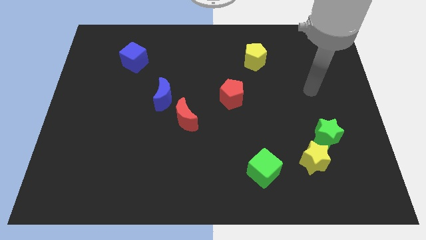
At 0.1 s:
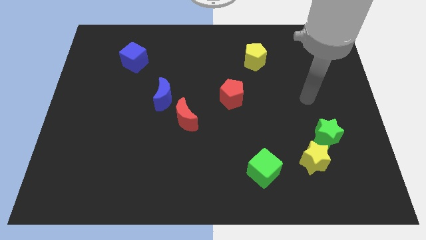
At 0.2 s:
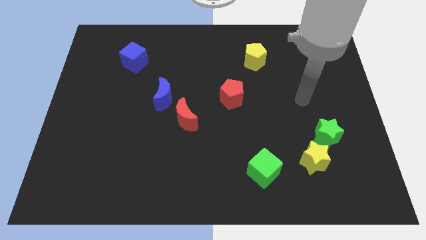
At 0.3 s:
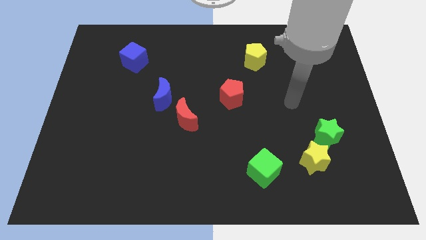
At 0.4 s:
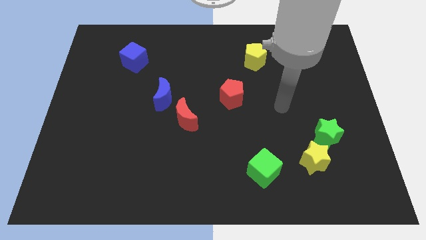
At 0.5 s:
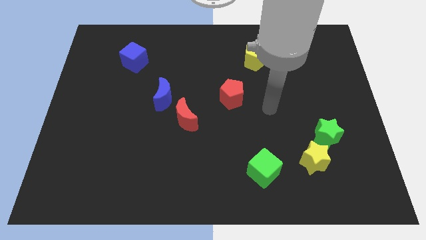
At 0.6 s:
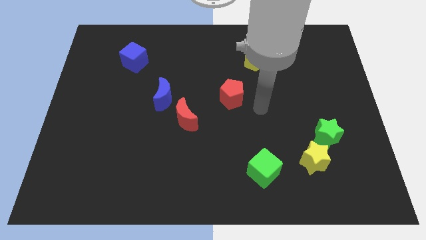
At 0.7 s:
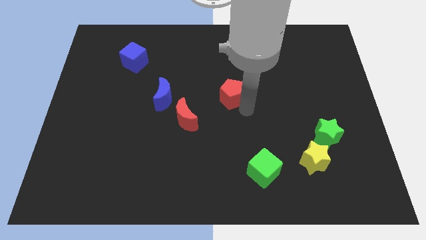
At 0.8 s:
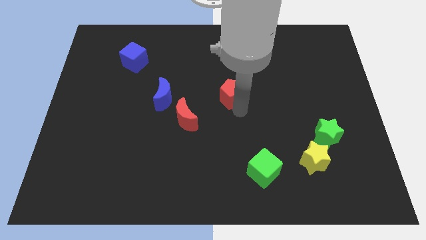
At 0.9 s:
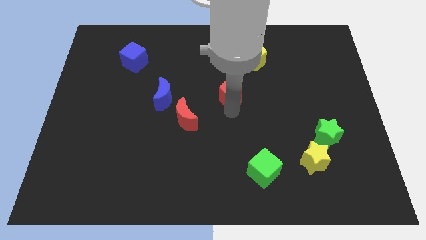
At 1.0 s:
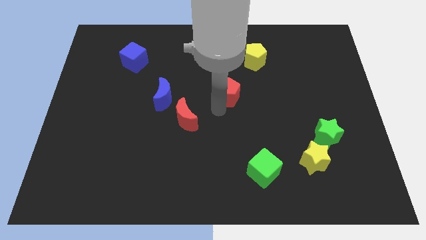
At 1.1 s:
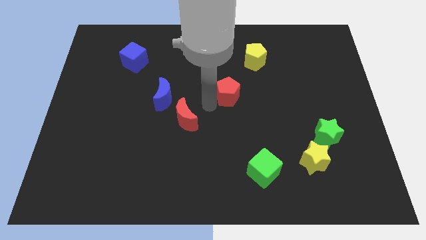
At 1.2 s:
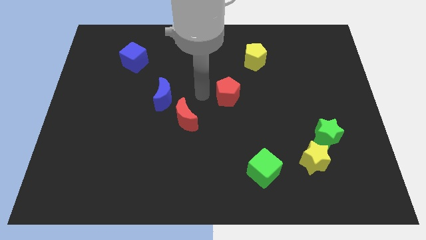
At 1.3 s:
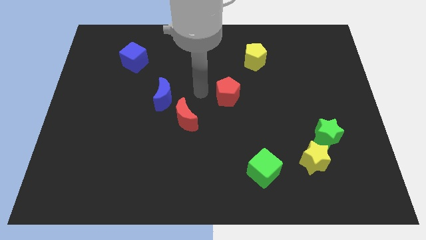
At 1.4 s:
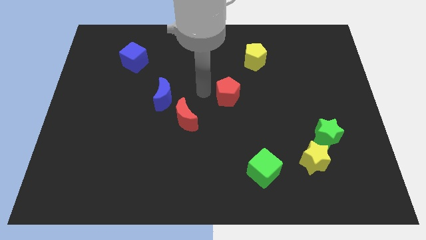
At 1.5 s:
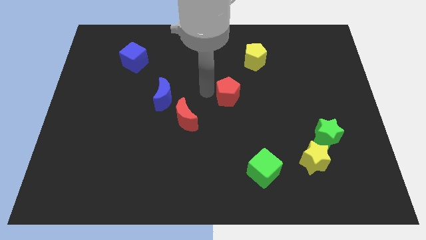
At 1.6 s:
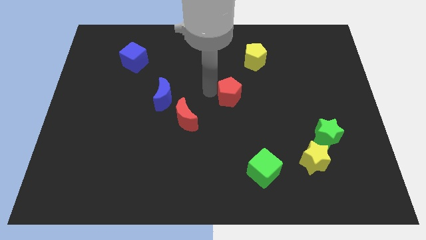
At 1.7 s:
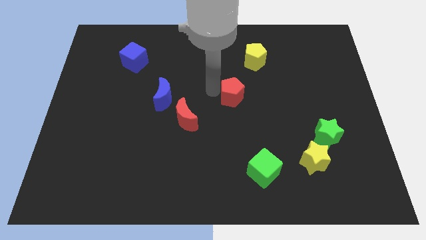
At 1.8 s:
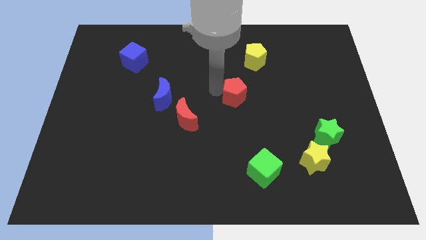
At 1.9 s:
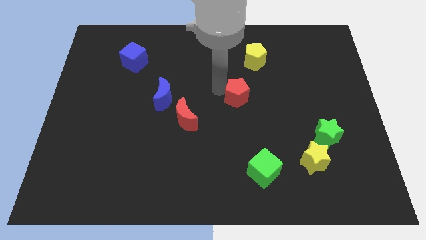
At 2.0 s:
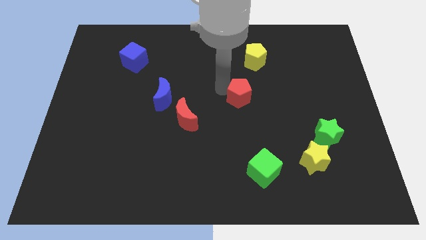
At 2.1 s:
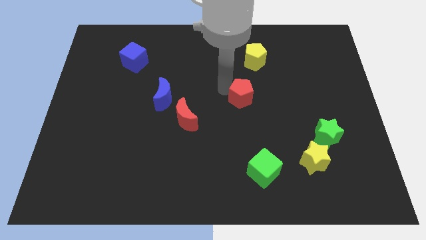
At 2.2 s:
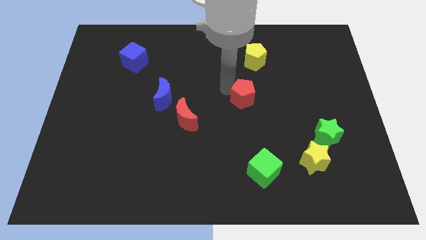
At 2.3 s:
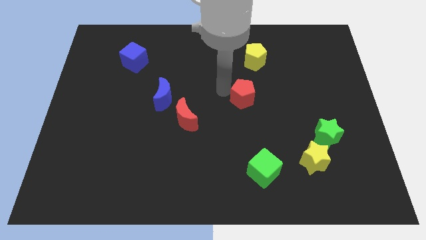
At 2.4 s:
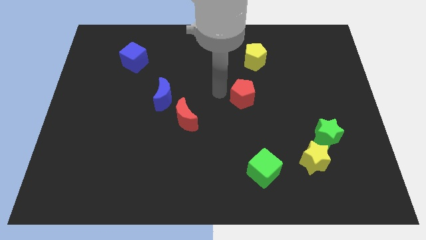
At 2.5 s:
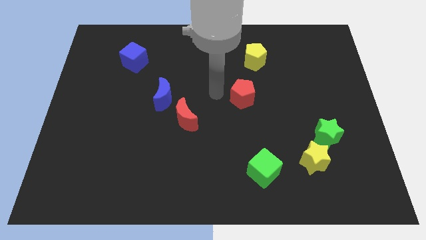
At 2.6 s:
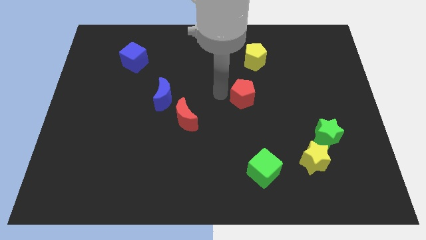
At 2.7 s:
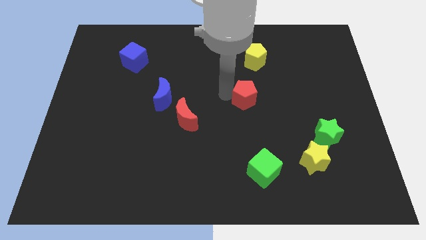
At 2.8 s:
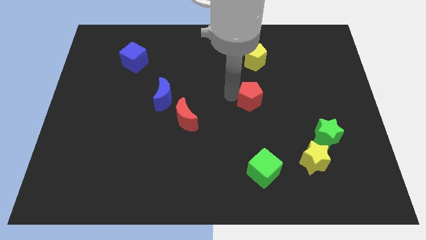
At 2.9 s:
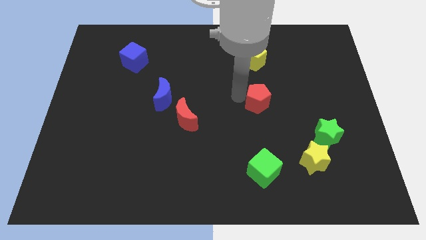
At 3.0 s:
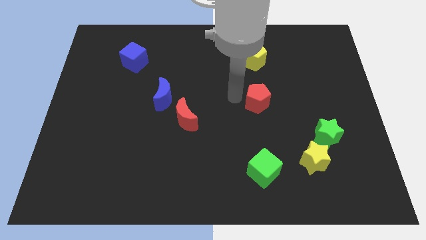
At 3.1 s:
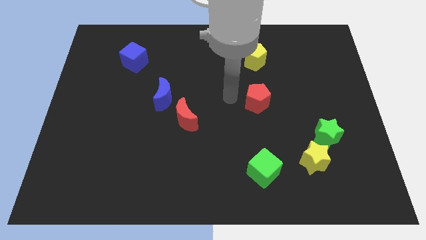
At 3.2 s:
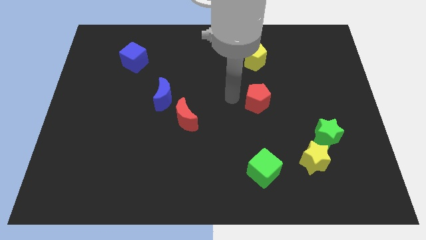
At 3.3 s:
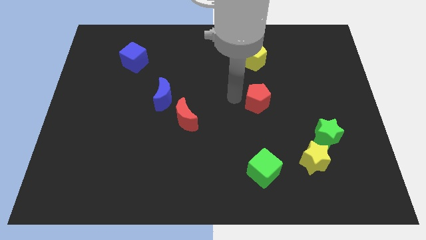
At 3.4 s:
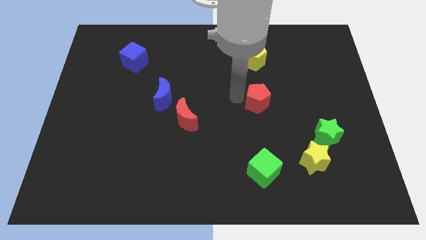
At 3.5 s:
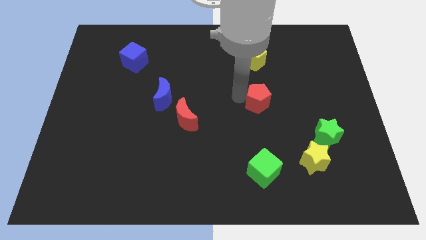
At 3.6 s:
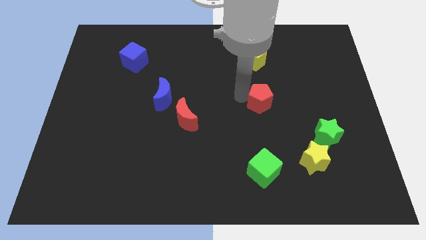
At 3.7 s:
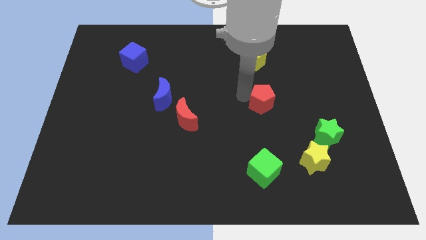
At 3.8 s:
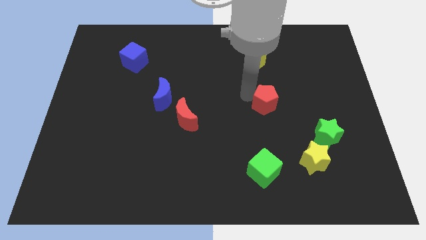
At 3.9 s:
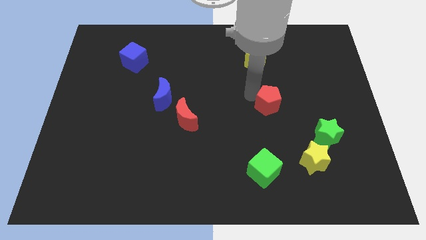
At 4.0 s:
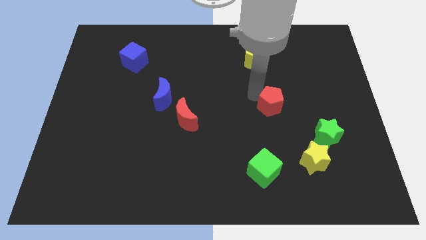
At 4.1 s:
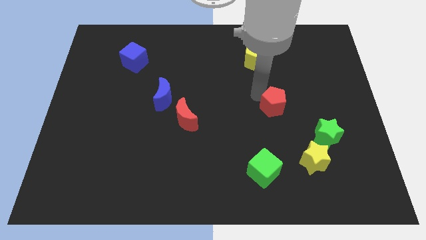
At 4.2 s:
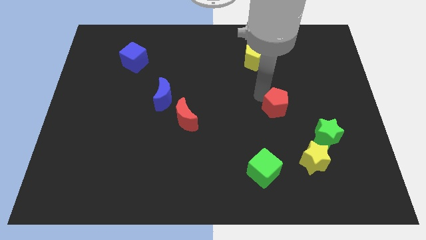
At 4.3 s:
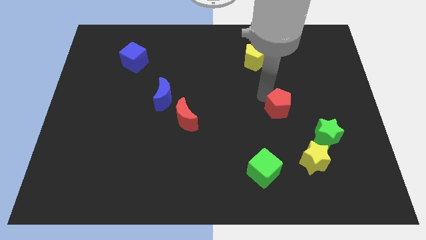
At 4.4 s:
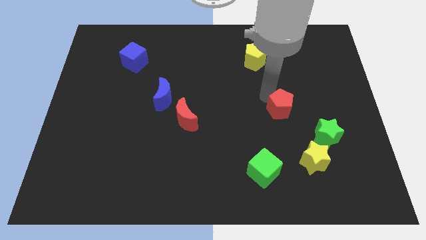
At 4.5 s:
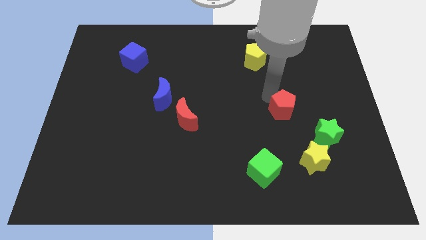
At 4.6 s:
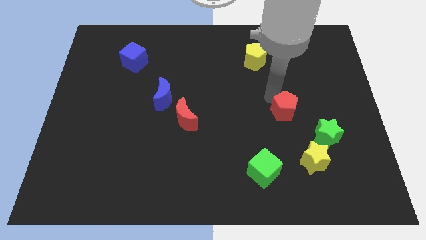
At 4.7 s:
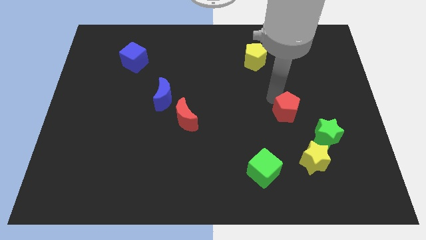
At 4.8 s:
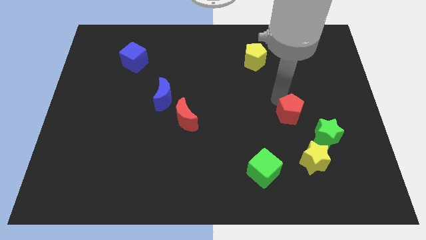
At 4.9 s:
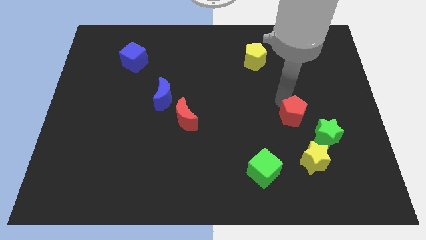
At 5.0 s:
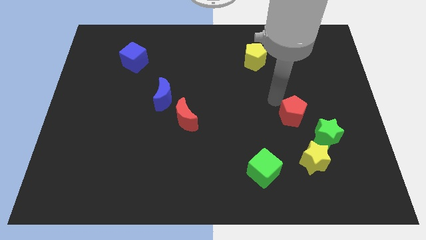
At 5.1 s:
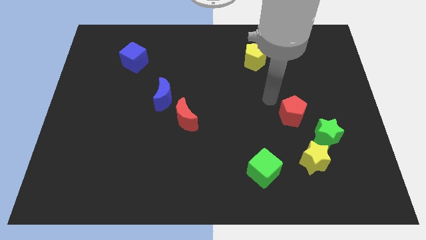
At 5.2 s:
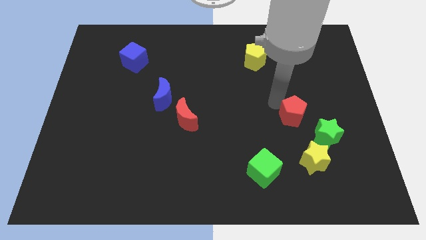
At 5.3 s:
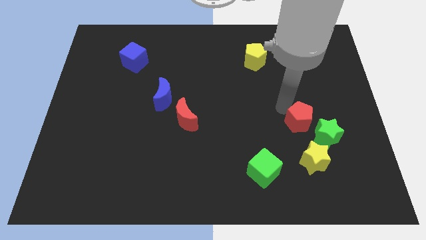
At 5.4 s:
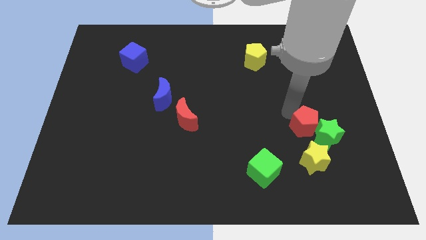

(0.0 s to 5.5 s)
slide the red pentagon to the green star

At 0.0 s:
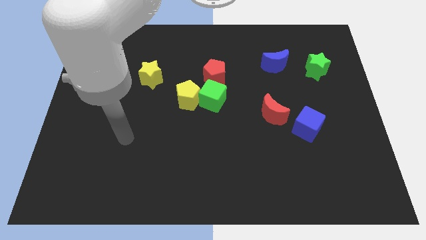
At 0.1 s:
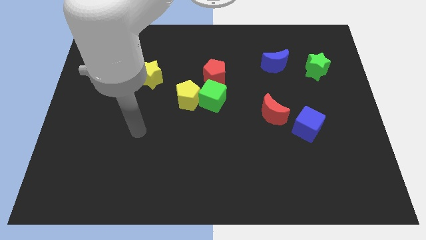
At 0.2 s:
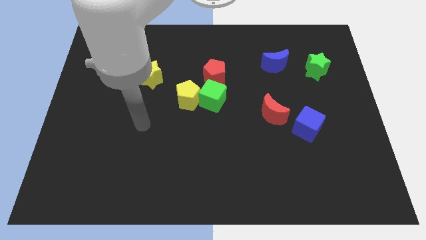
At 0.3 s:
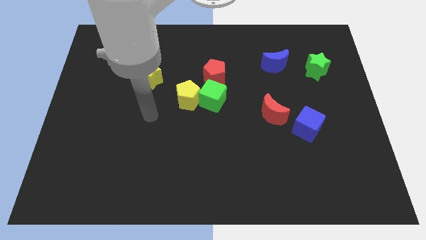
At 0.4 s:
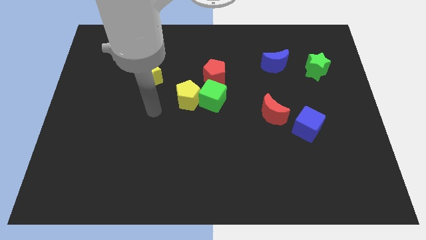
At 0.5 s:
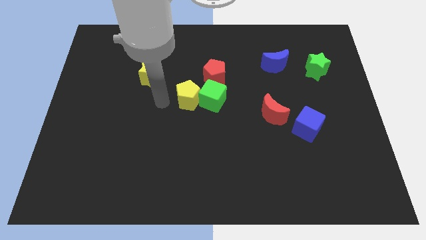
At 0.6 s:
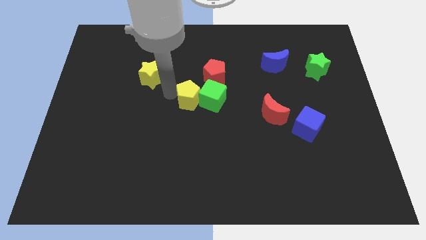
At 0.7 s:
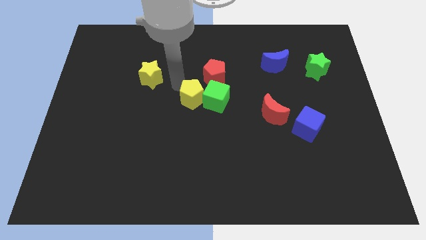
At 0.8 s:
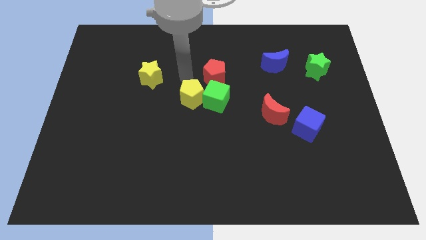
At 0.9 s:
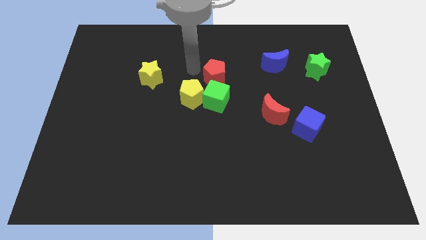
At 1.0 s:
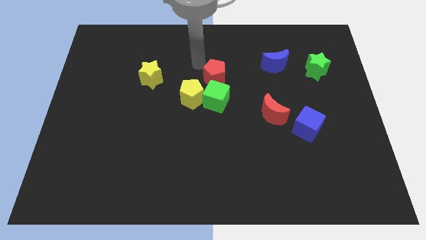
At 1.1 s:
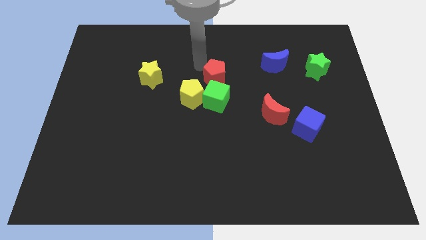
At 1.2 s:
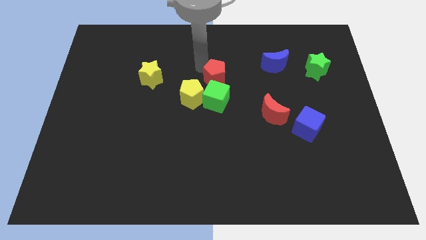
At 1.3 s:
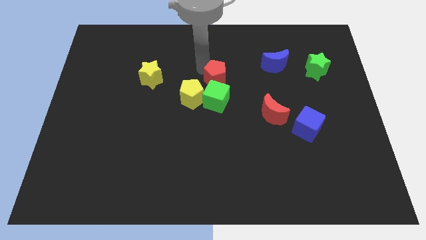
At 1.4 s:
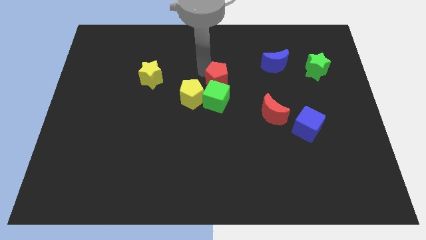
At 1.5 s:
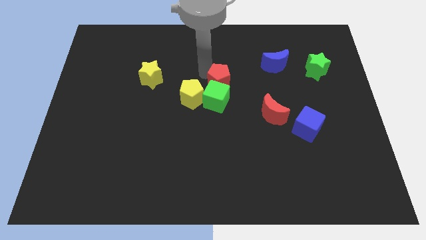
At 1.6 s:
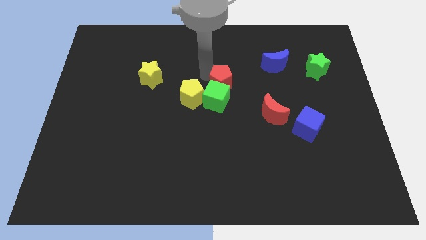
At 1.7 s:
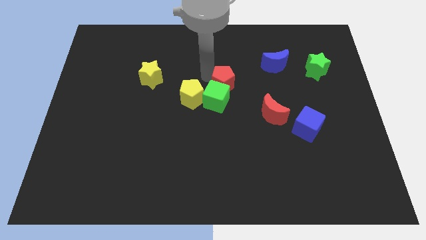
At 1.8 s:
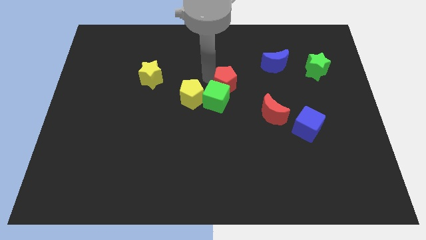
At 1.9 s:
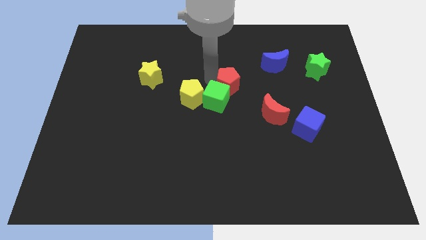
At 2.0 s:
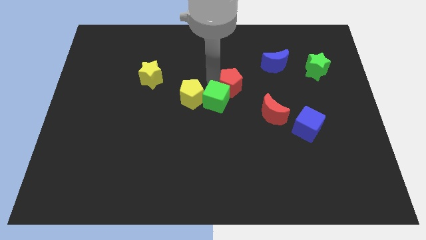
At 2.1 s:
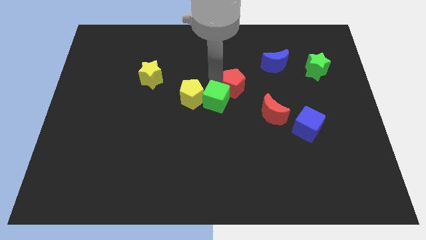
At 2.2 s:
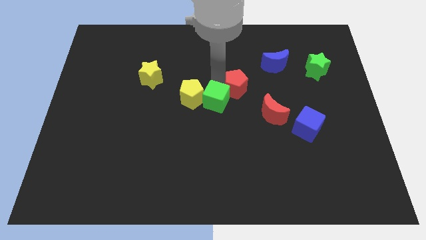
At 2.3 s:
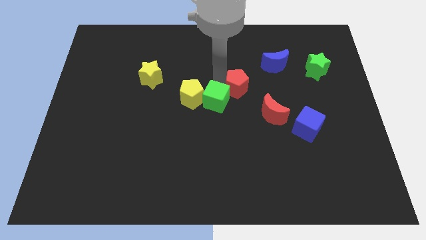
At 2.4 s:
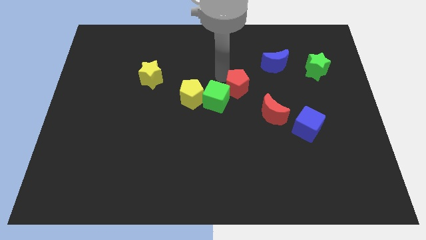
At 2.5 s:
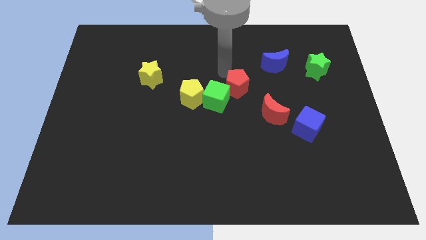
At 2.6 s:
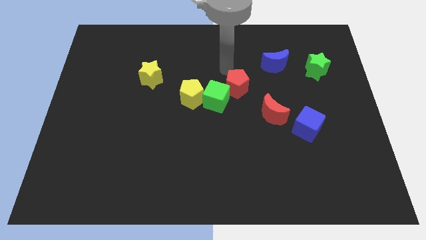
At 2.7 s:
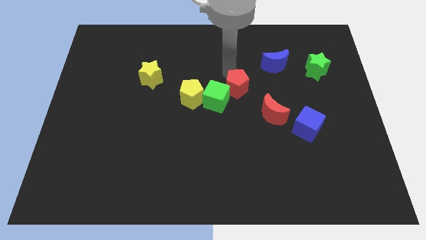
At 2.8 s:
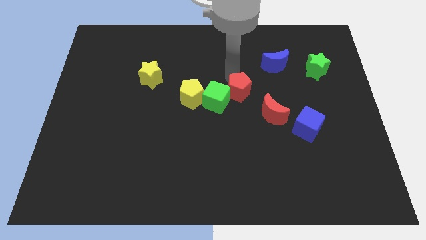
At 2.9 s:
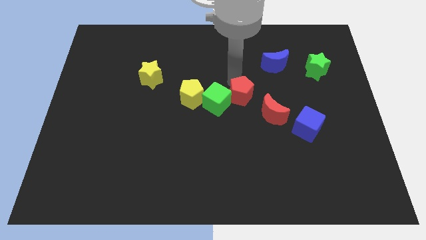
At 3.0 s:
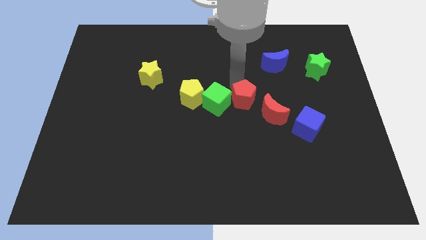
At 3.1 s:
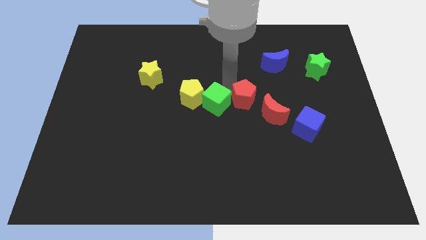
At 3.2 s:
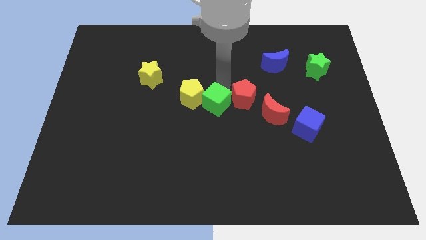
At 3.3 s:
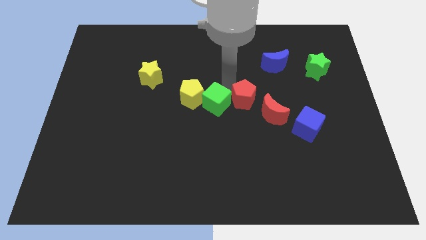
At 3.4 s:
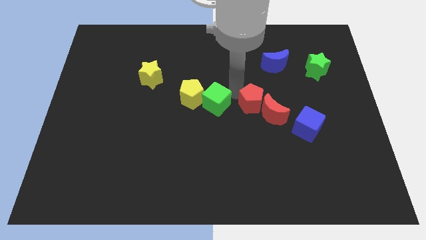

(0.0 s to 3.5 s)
push the red pentagon close to the red moon
